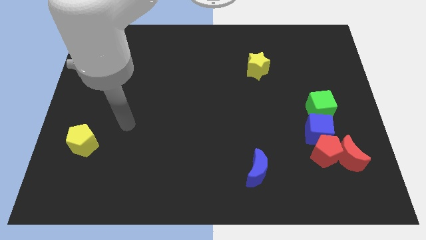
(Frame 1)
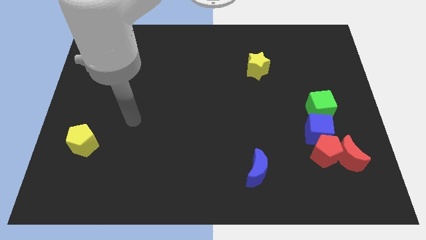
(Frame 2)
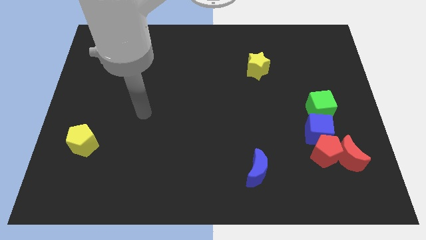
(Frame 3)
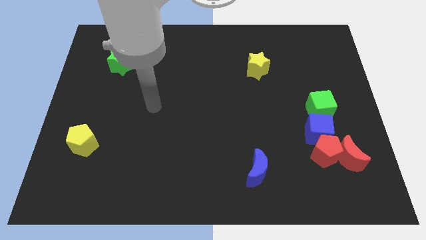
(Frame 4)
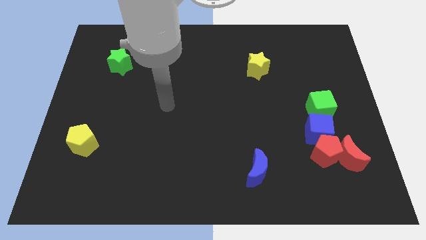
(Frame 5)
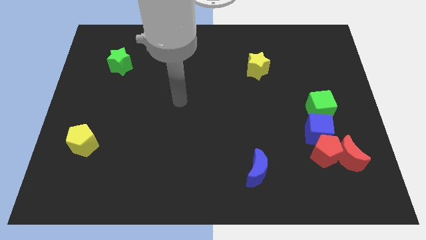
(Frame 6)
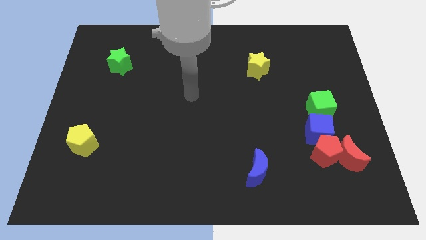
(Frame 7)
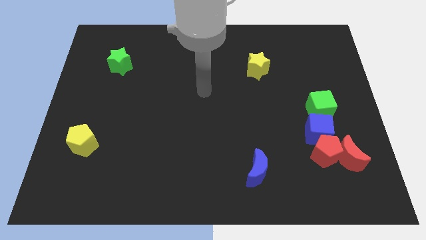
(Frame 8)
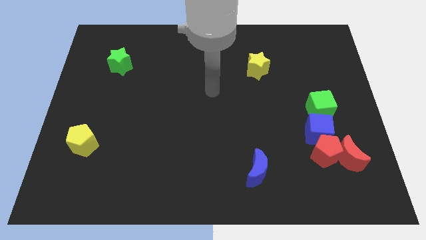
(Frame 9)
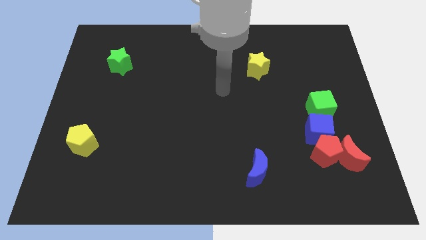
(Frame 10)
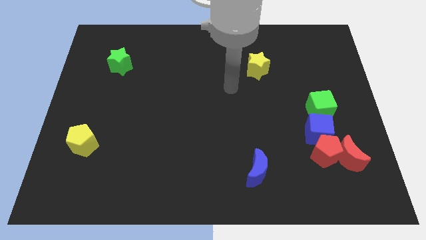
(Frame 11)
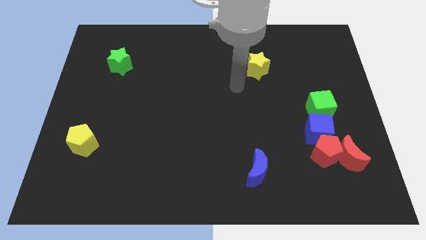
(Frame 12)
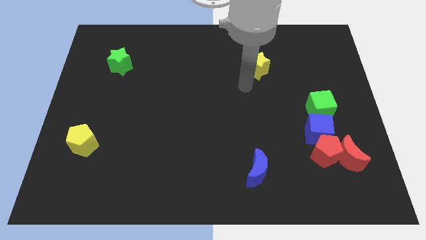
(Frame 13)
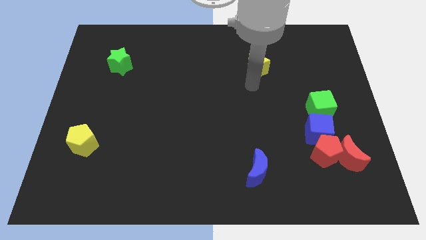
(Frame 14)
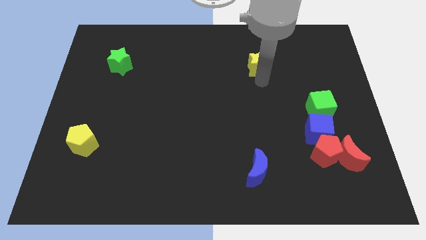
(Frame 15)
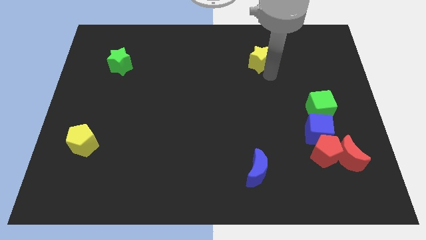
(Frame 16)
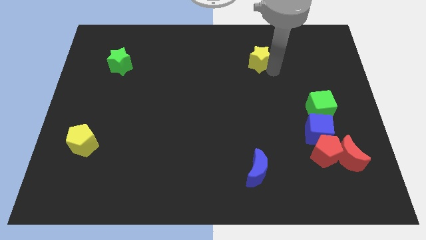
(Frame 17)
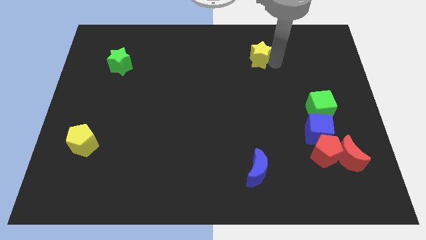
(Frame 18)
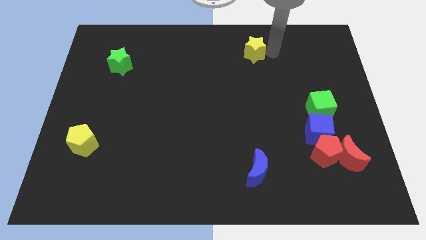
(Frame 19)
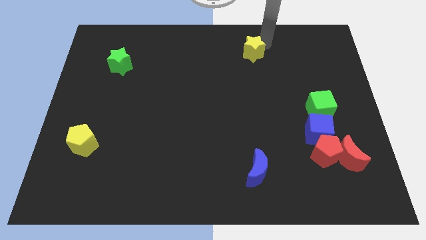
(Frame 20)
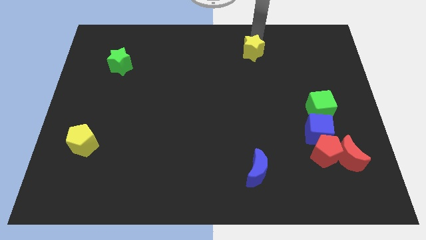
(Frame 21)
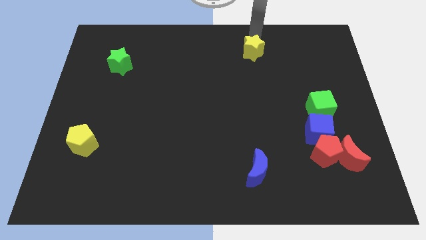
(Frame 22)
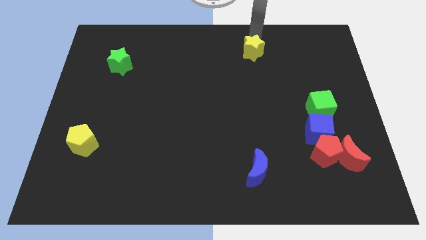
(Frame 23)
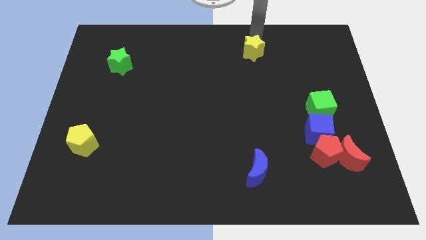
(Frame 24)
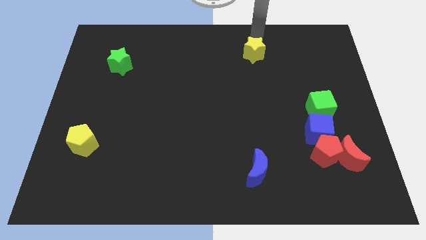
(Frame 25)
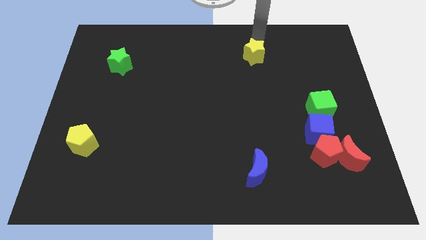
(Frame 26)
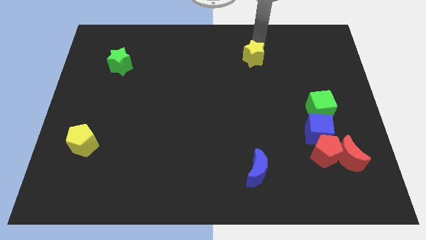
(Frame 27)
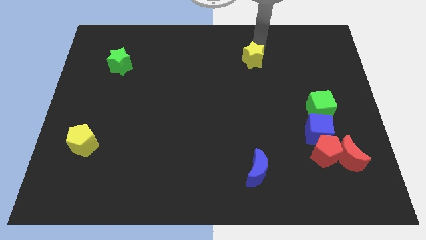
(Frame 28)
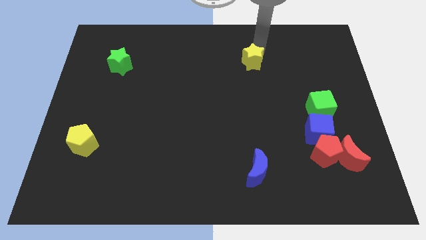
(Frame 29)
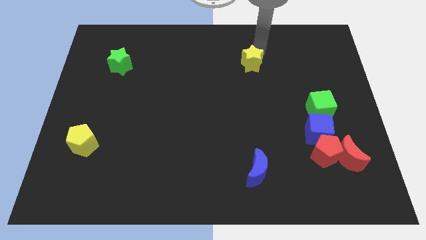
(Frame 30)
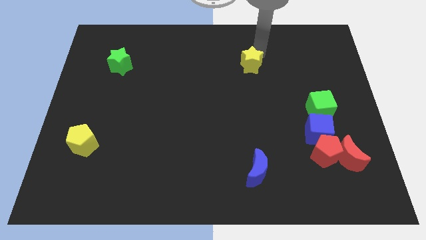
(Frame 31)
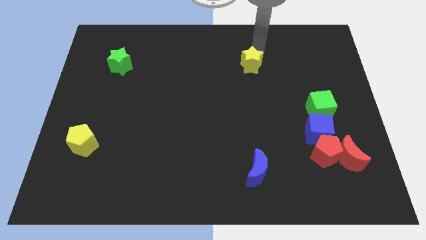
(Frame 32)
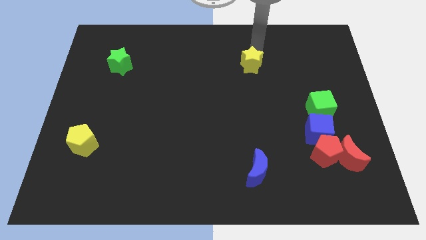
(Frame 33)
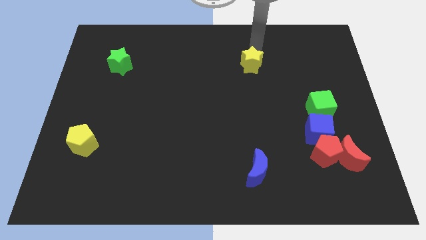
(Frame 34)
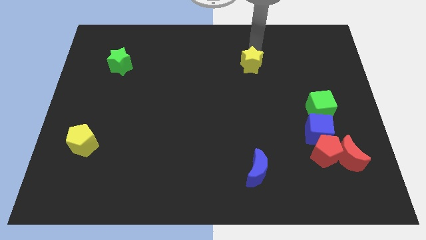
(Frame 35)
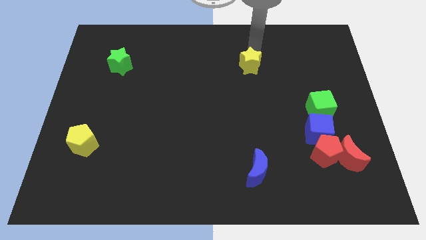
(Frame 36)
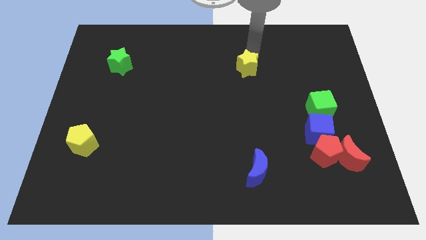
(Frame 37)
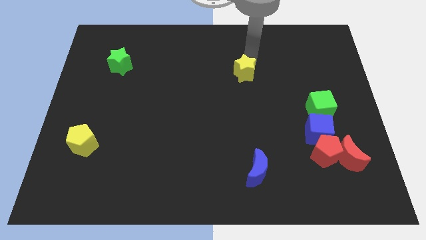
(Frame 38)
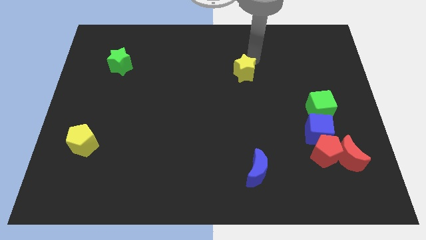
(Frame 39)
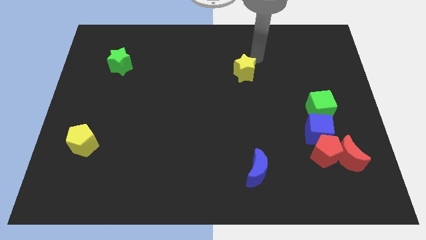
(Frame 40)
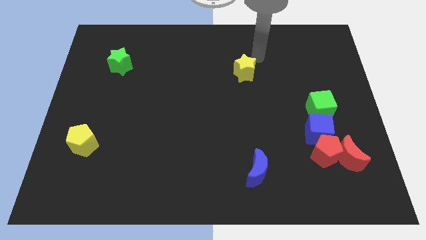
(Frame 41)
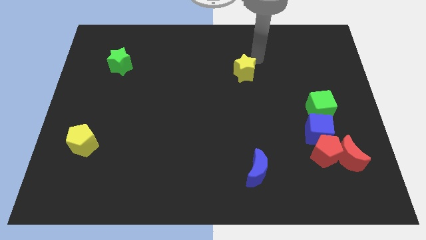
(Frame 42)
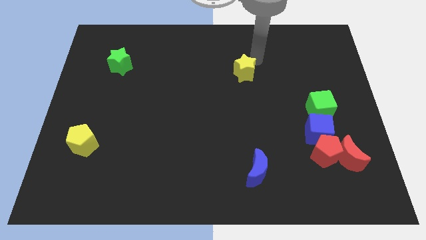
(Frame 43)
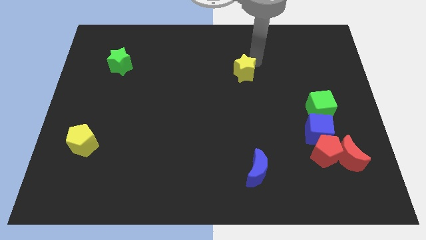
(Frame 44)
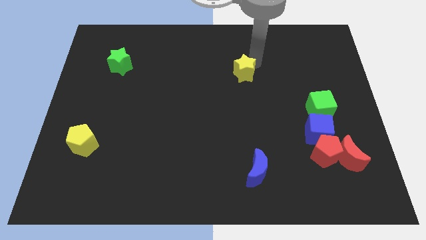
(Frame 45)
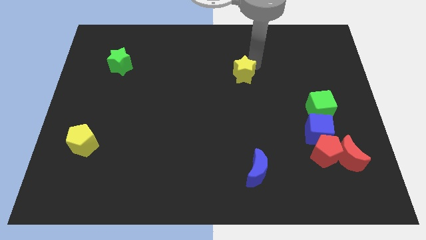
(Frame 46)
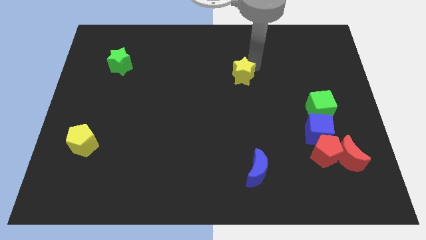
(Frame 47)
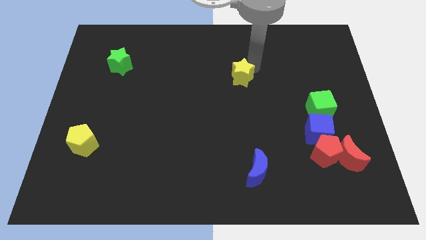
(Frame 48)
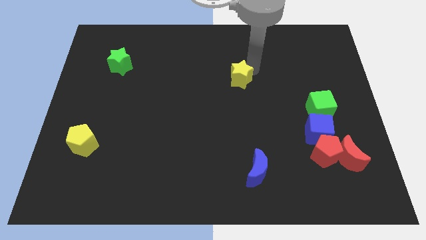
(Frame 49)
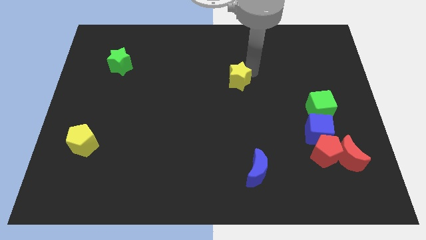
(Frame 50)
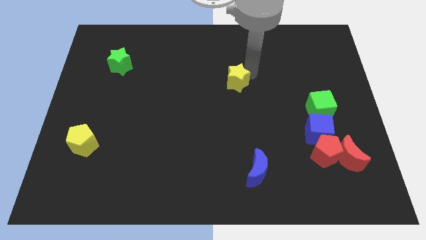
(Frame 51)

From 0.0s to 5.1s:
slightly slide the yellow star down and left

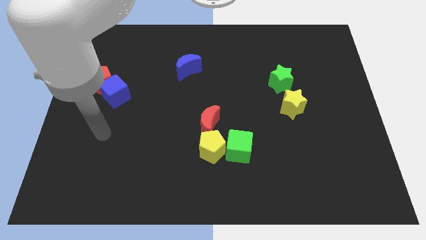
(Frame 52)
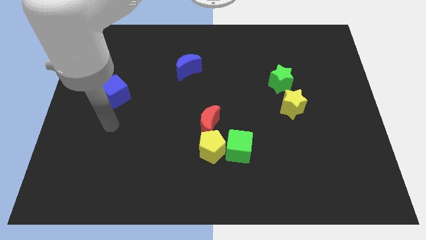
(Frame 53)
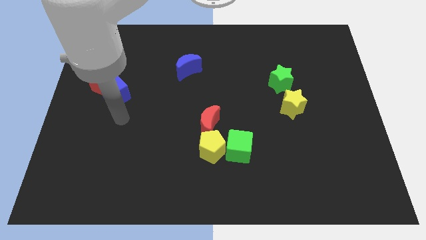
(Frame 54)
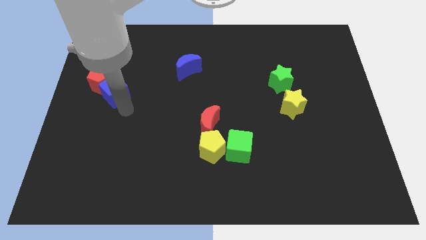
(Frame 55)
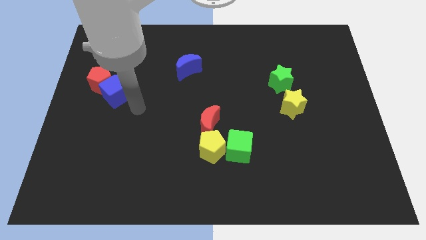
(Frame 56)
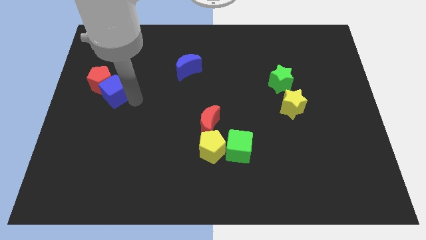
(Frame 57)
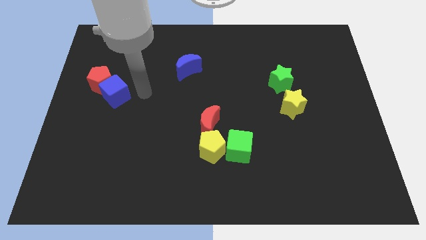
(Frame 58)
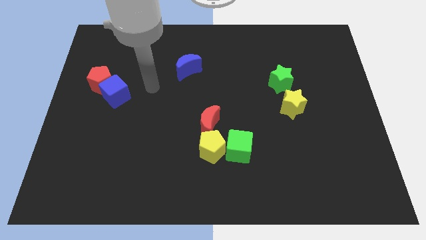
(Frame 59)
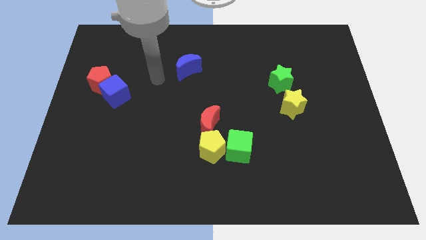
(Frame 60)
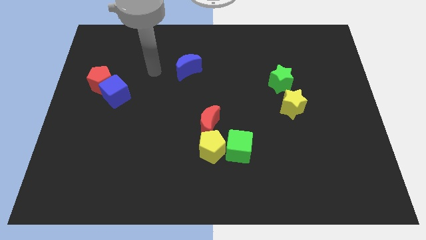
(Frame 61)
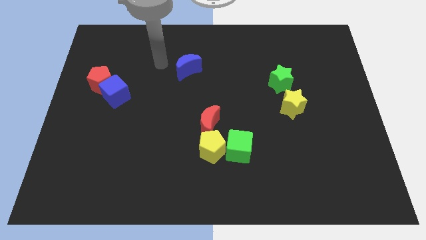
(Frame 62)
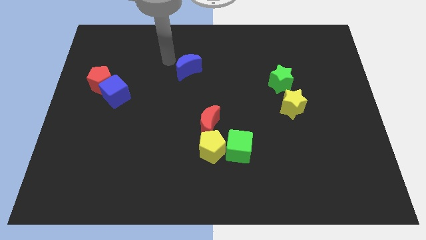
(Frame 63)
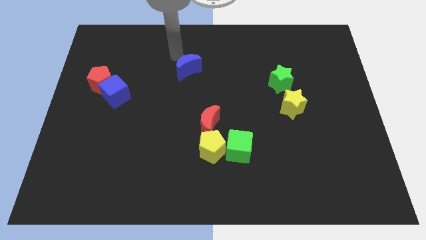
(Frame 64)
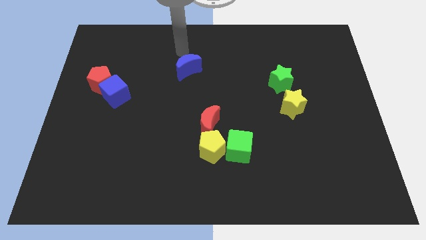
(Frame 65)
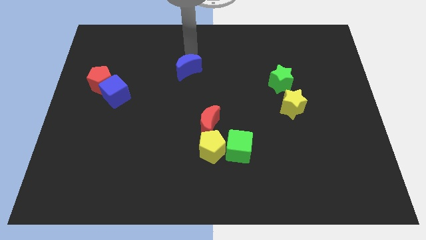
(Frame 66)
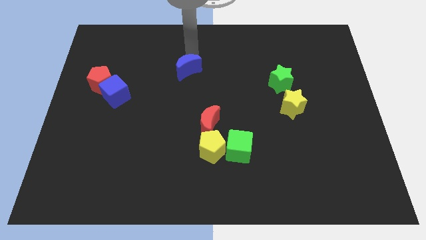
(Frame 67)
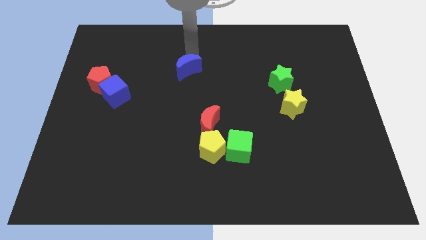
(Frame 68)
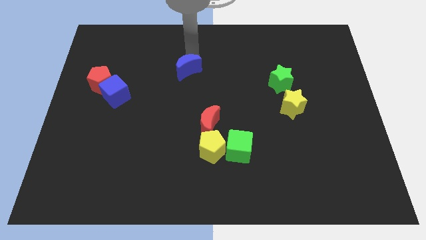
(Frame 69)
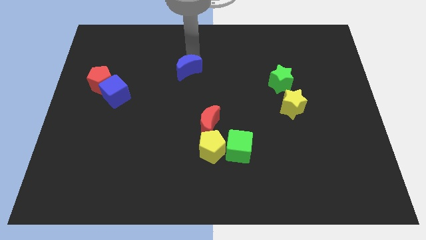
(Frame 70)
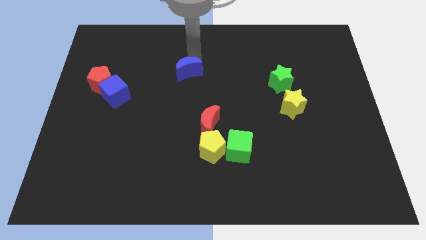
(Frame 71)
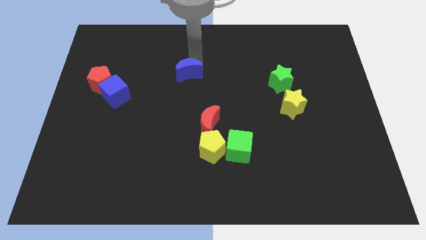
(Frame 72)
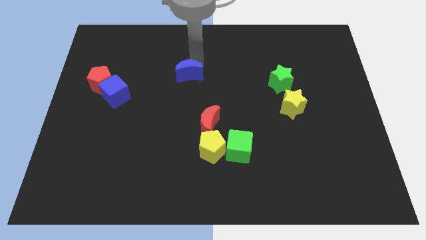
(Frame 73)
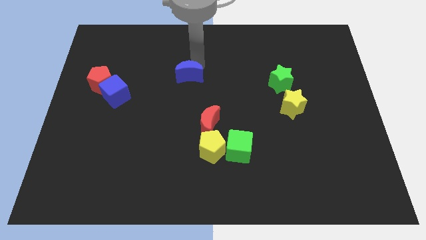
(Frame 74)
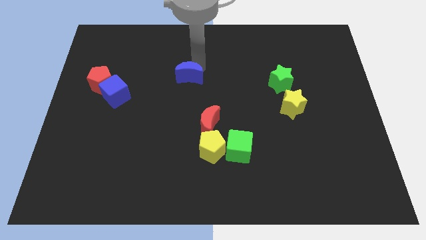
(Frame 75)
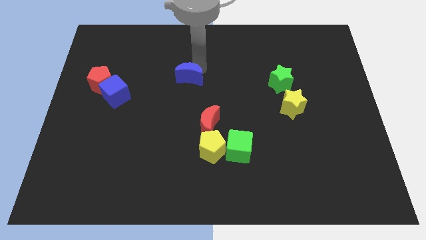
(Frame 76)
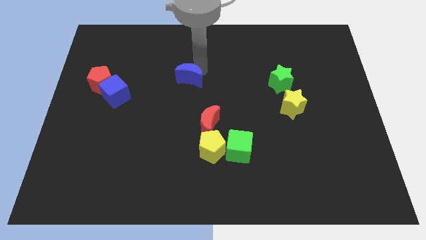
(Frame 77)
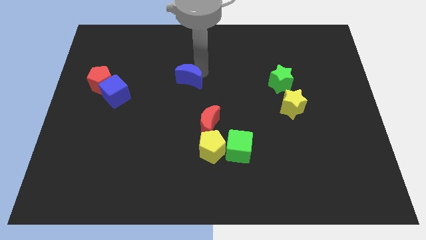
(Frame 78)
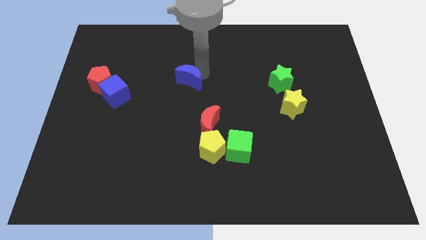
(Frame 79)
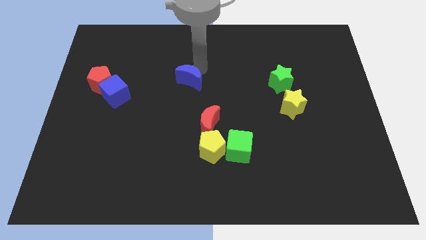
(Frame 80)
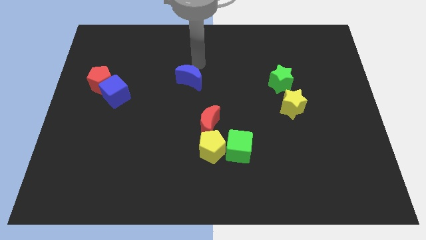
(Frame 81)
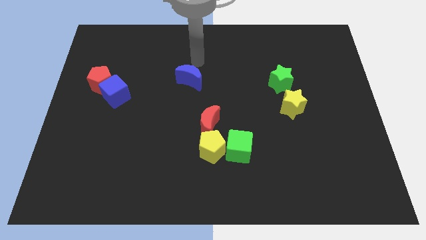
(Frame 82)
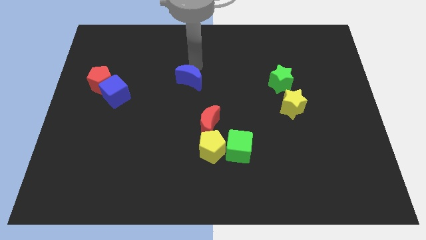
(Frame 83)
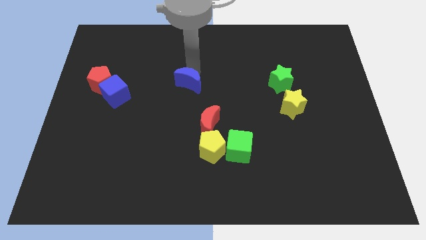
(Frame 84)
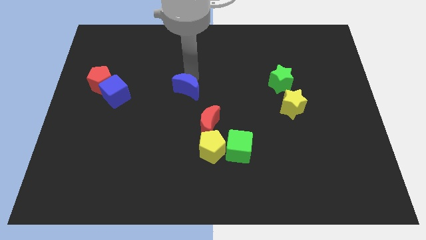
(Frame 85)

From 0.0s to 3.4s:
slightly move the blue moon downwards
